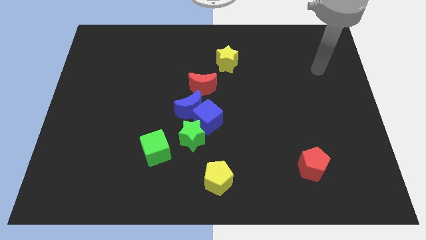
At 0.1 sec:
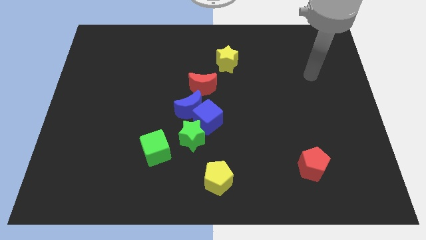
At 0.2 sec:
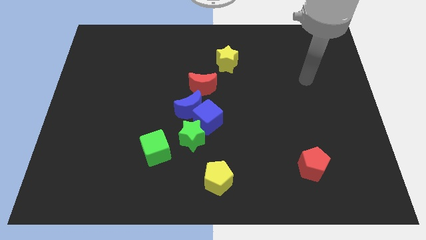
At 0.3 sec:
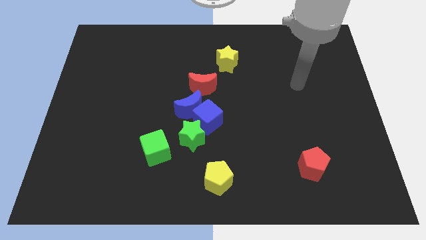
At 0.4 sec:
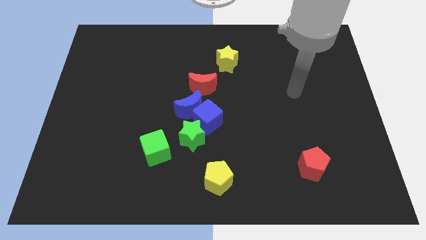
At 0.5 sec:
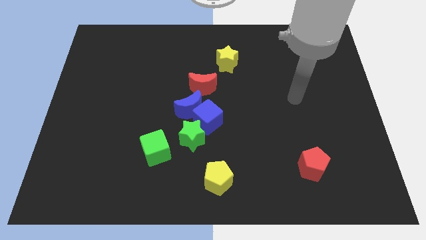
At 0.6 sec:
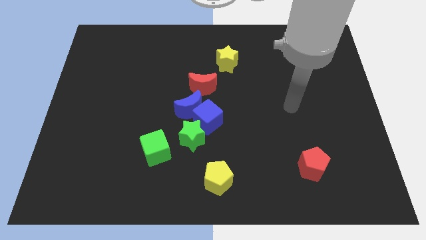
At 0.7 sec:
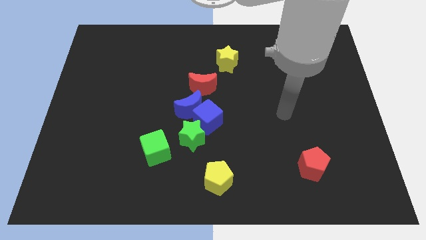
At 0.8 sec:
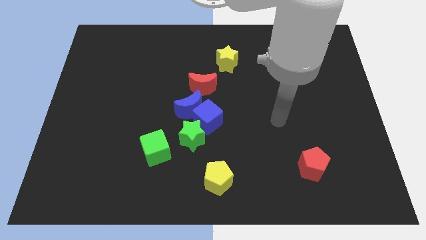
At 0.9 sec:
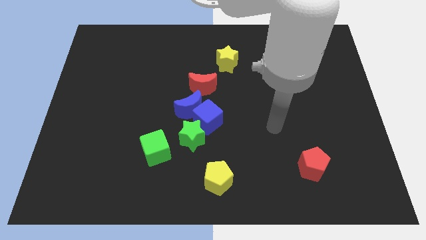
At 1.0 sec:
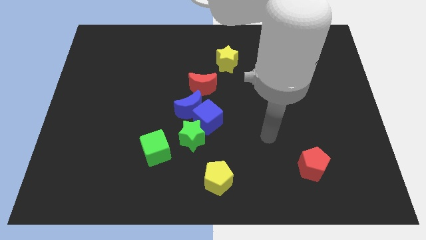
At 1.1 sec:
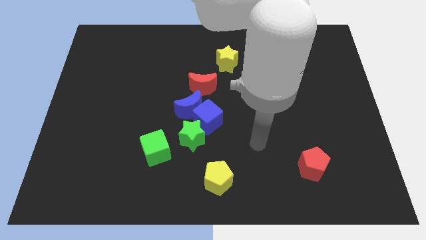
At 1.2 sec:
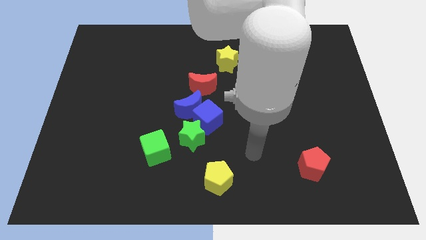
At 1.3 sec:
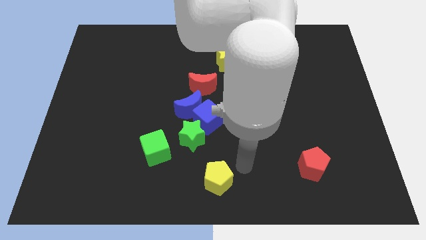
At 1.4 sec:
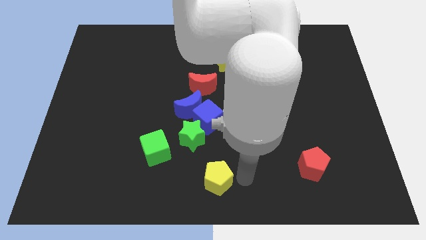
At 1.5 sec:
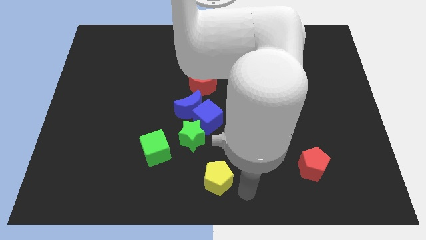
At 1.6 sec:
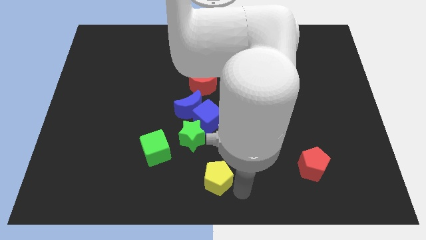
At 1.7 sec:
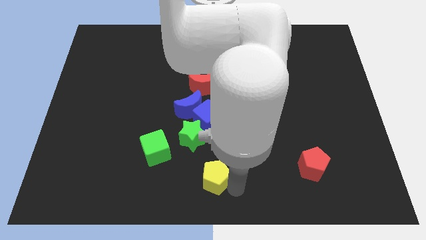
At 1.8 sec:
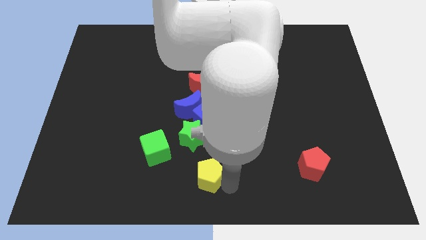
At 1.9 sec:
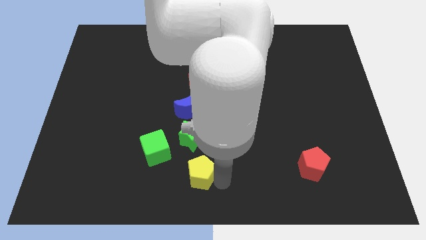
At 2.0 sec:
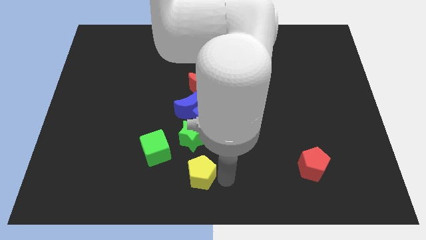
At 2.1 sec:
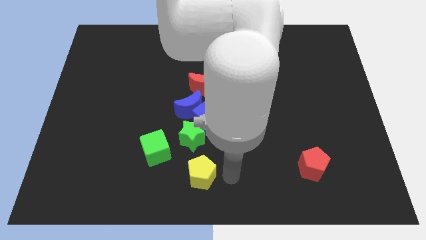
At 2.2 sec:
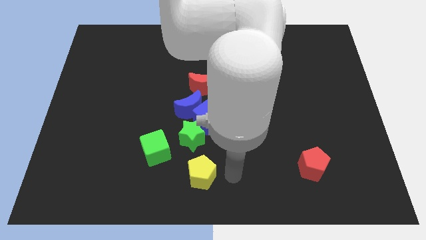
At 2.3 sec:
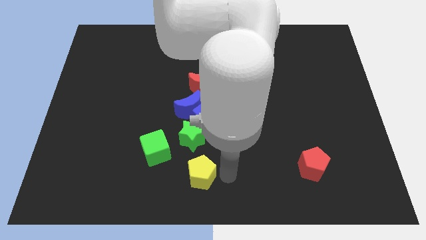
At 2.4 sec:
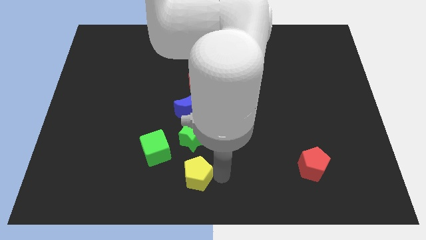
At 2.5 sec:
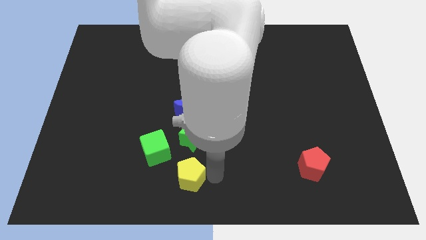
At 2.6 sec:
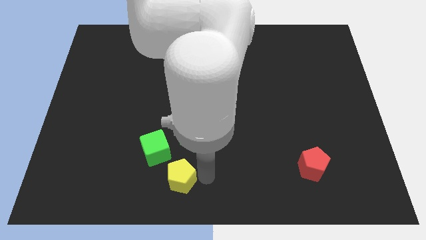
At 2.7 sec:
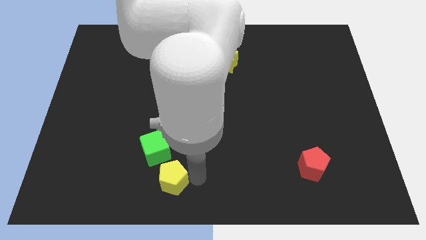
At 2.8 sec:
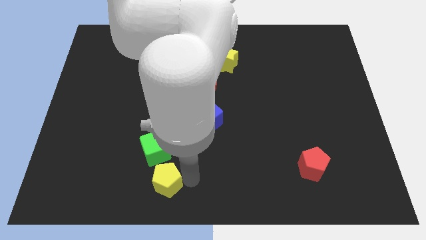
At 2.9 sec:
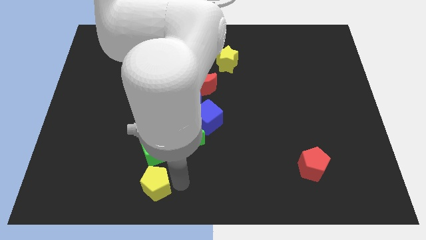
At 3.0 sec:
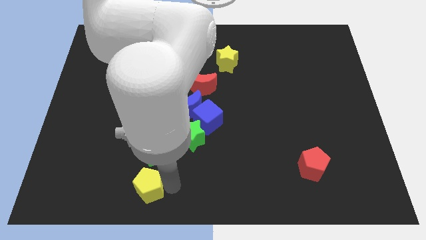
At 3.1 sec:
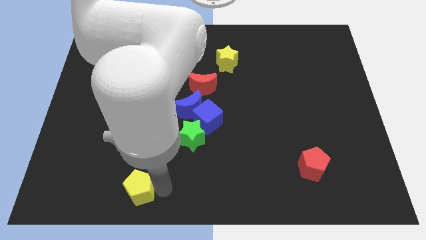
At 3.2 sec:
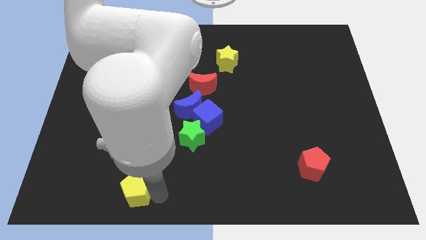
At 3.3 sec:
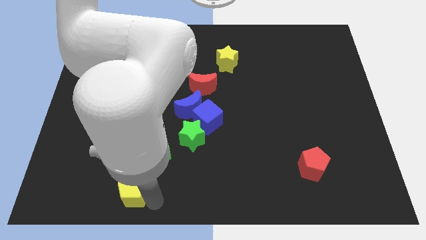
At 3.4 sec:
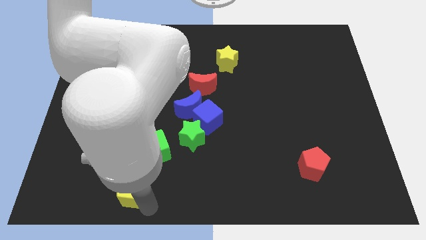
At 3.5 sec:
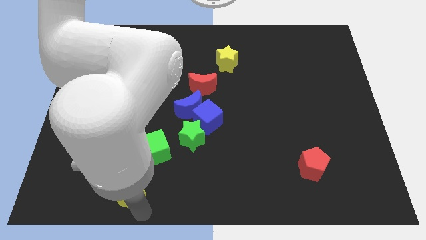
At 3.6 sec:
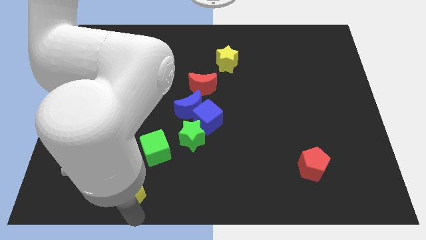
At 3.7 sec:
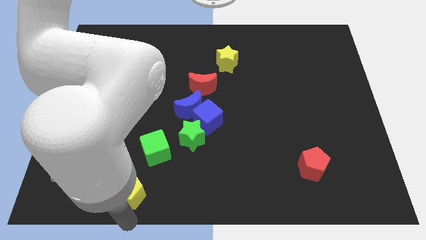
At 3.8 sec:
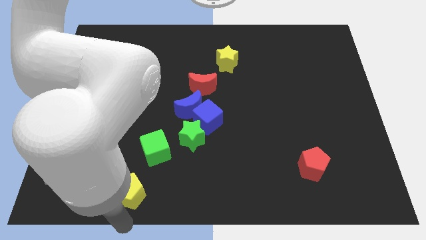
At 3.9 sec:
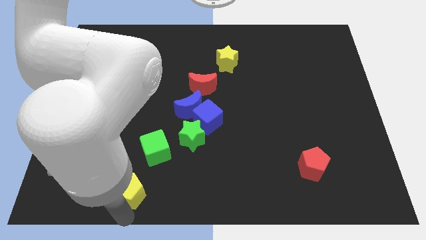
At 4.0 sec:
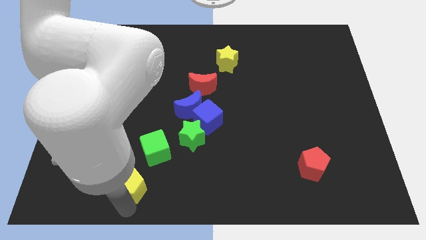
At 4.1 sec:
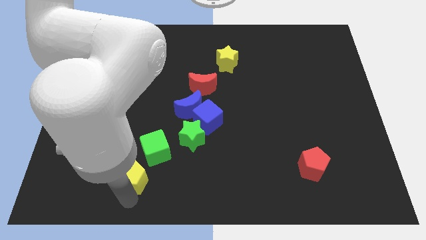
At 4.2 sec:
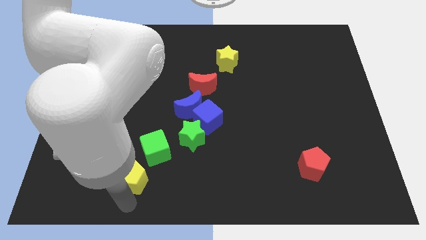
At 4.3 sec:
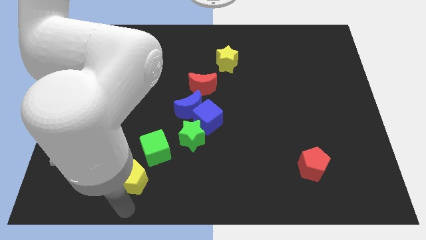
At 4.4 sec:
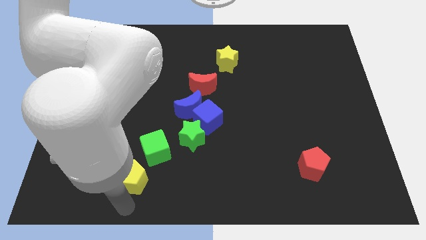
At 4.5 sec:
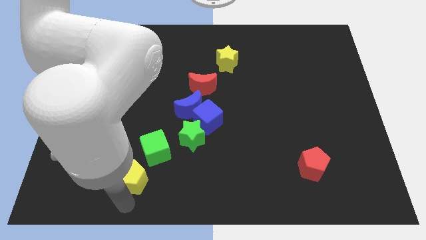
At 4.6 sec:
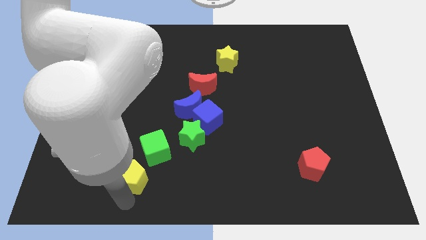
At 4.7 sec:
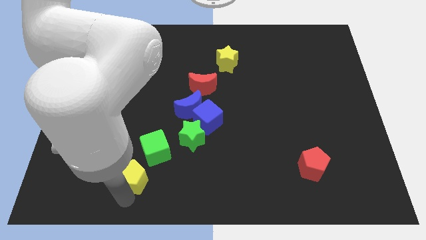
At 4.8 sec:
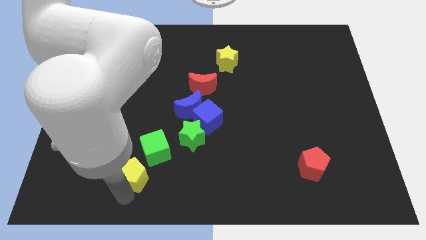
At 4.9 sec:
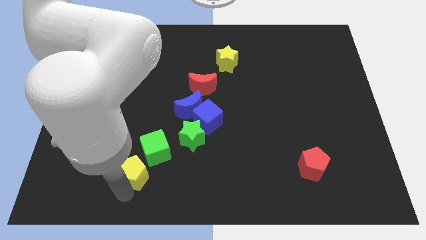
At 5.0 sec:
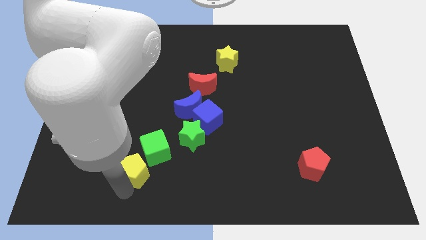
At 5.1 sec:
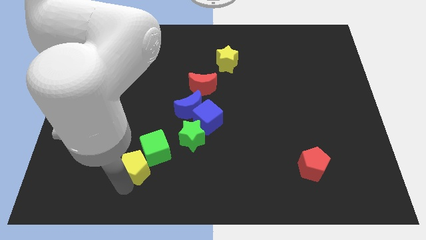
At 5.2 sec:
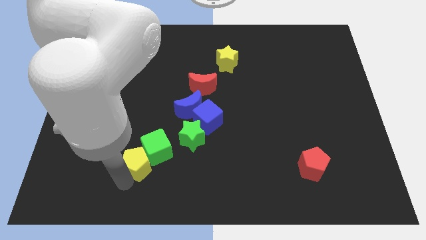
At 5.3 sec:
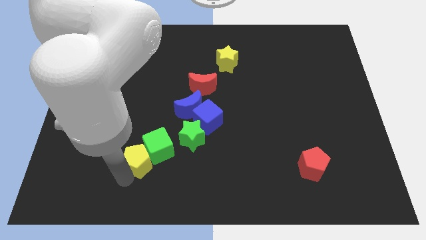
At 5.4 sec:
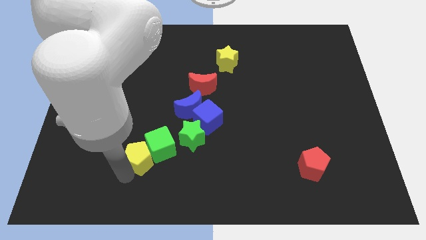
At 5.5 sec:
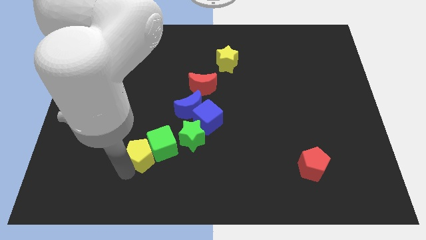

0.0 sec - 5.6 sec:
push the yellow pentagon to the left side of the green star
